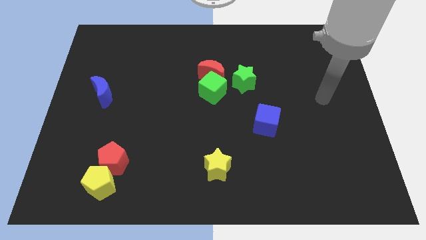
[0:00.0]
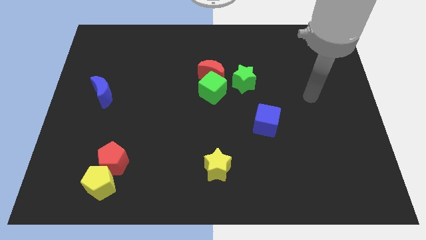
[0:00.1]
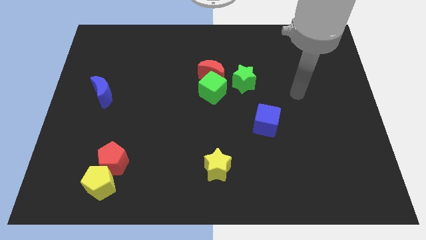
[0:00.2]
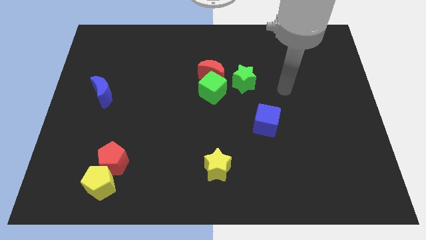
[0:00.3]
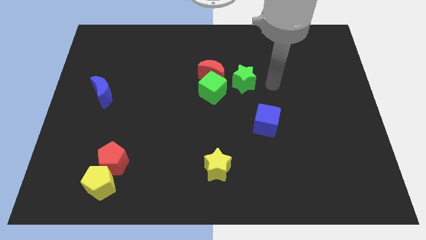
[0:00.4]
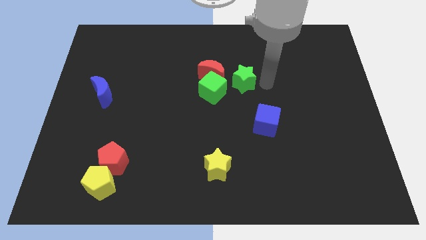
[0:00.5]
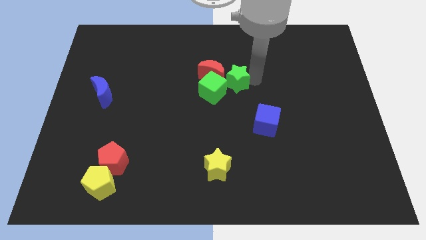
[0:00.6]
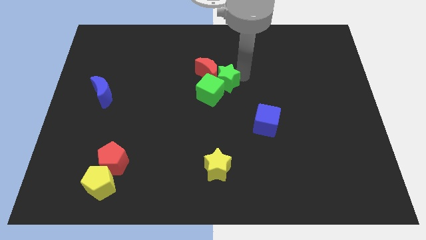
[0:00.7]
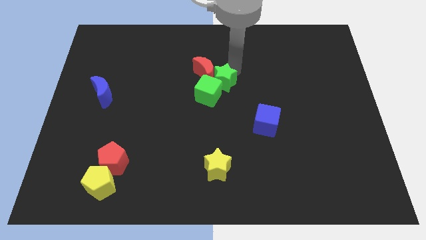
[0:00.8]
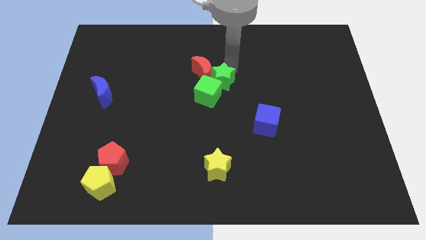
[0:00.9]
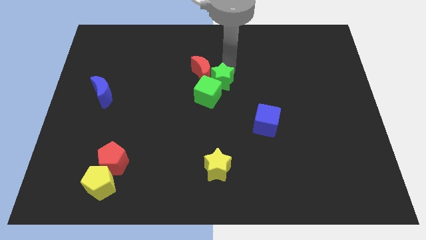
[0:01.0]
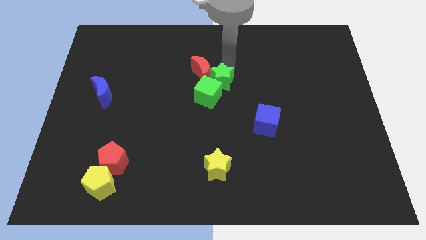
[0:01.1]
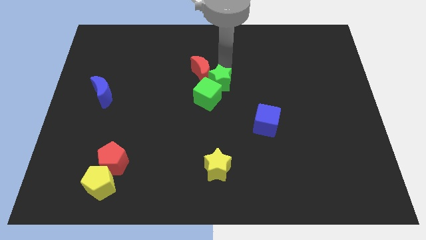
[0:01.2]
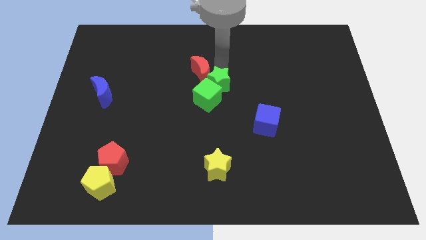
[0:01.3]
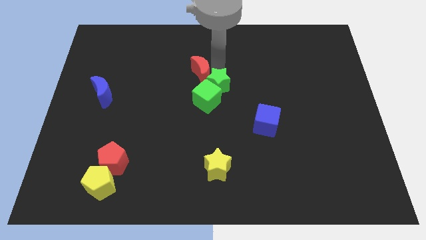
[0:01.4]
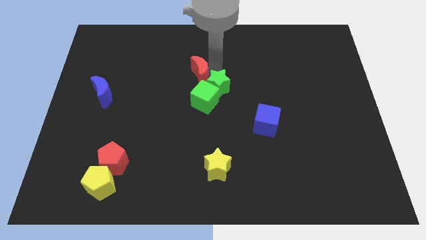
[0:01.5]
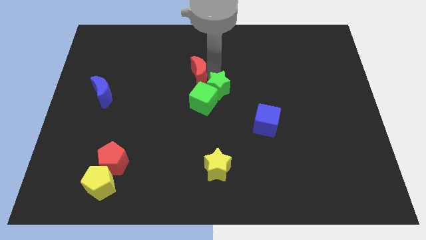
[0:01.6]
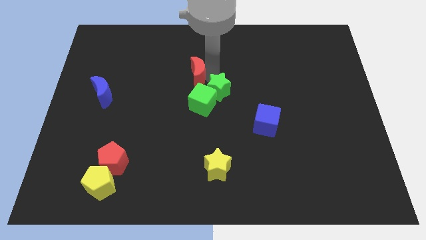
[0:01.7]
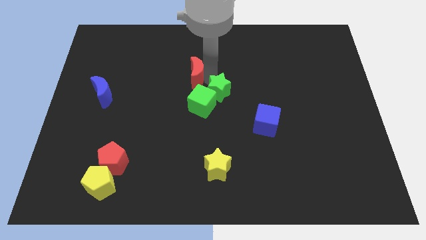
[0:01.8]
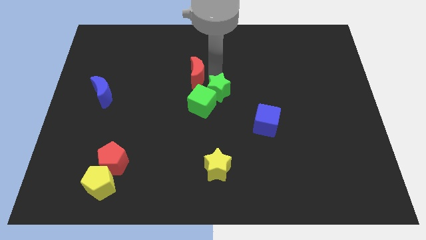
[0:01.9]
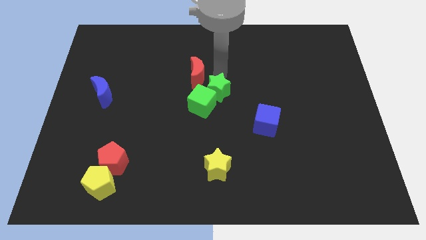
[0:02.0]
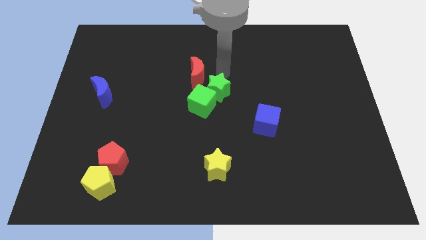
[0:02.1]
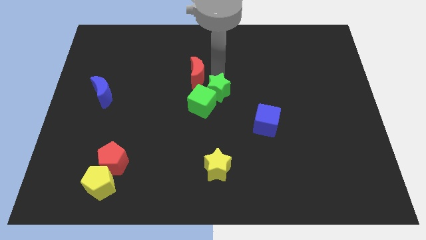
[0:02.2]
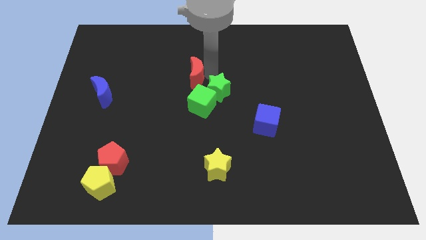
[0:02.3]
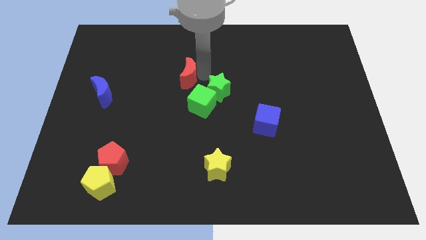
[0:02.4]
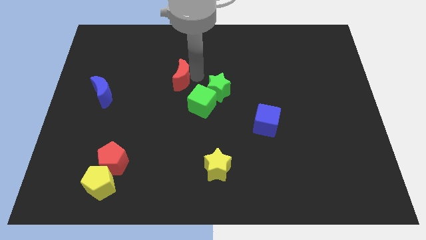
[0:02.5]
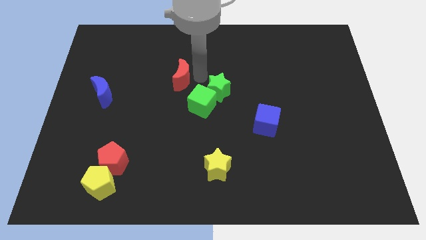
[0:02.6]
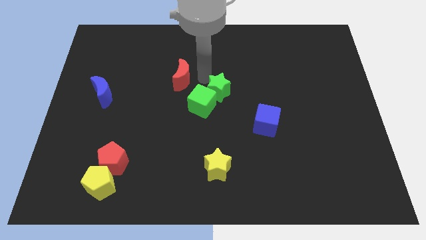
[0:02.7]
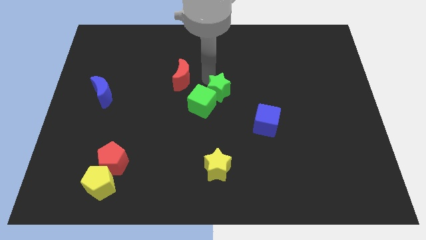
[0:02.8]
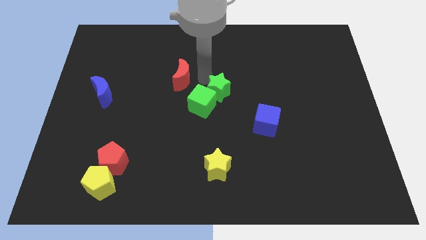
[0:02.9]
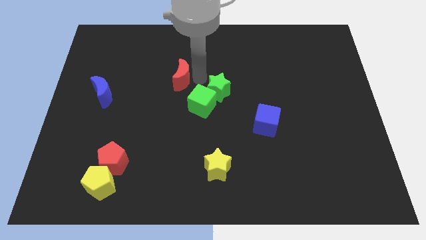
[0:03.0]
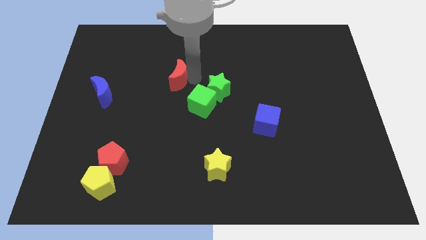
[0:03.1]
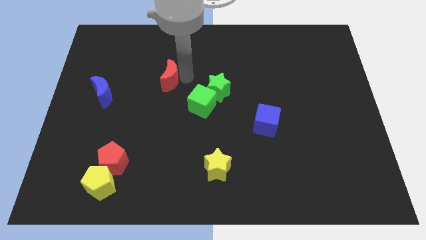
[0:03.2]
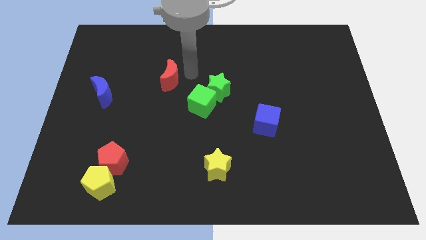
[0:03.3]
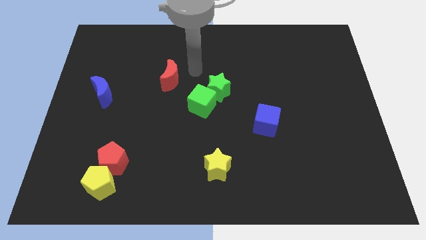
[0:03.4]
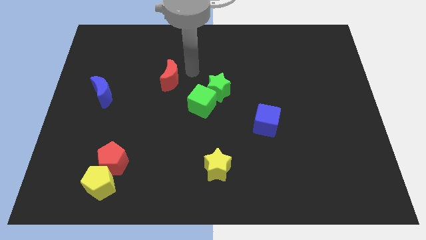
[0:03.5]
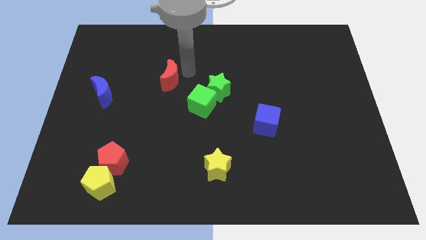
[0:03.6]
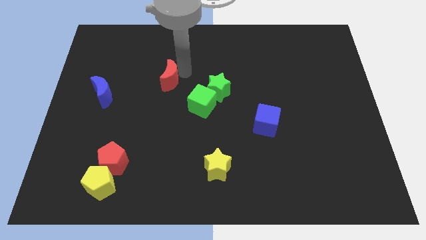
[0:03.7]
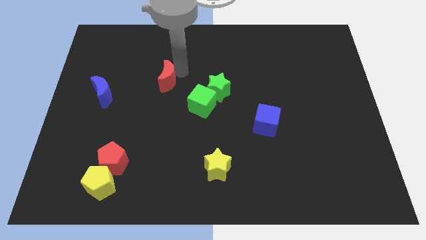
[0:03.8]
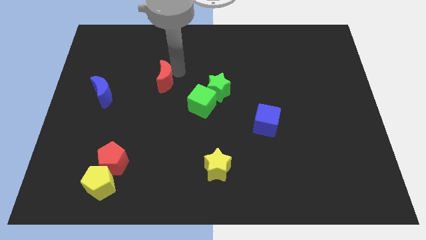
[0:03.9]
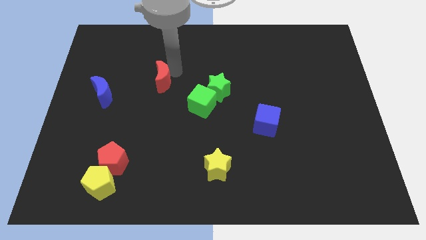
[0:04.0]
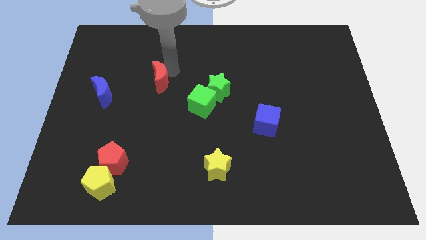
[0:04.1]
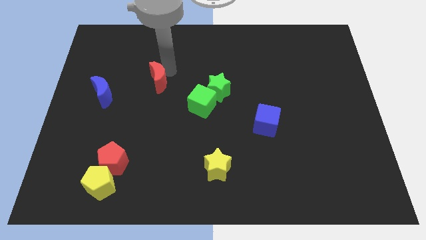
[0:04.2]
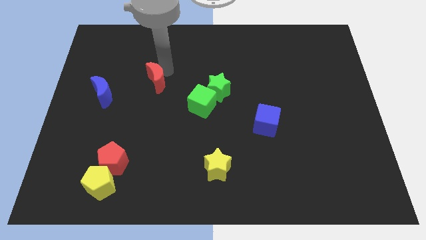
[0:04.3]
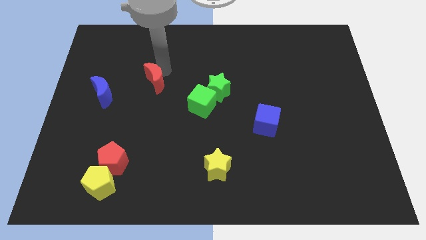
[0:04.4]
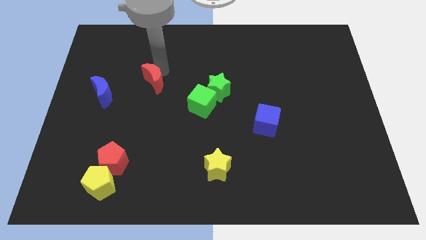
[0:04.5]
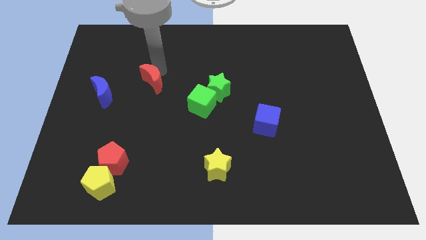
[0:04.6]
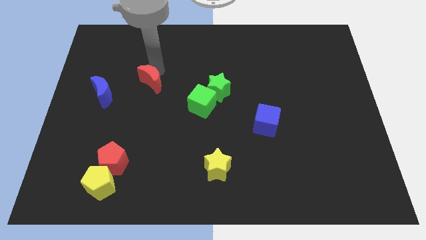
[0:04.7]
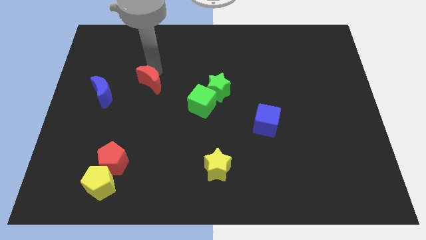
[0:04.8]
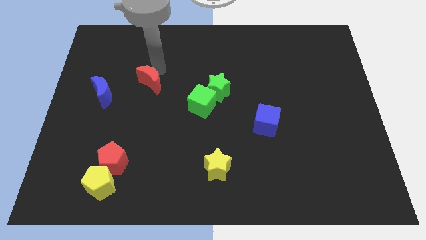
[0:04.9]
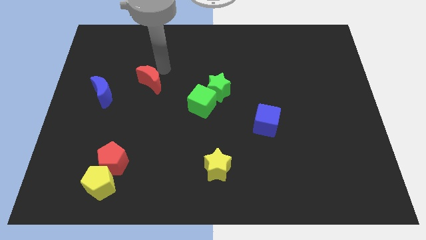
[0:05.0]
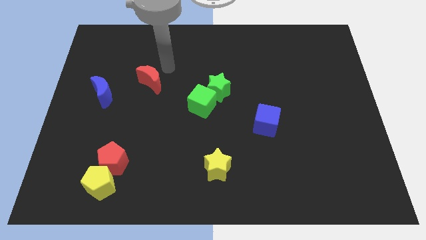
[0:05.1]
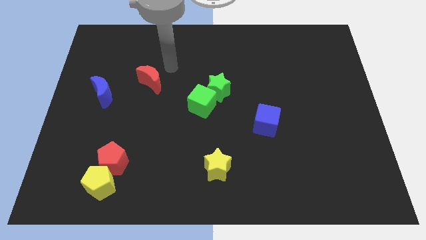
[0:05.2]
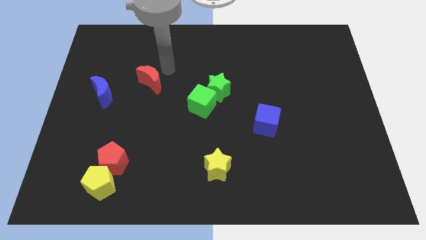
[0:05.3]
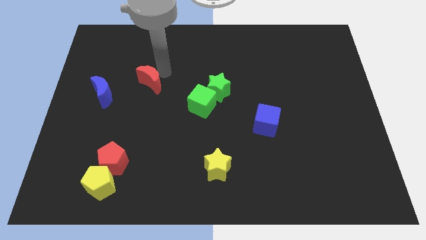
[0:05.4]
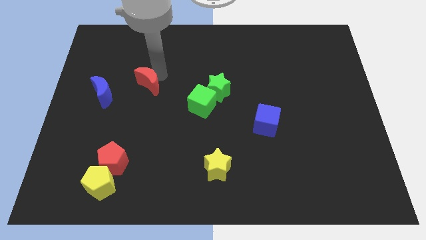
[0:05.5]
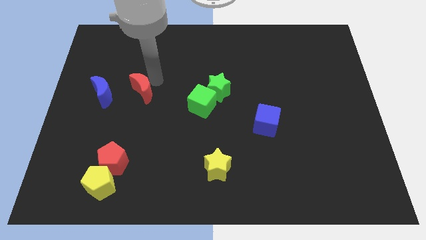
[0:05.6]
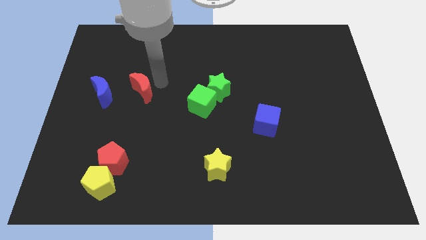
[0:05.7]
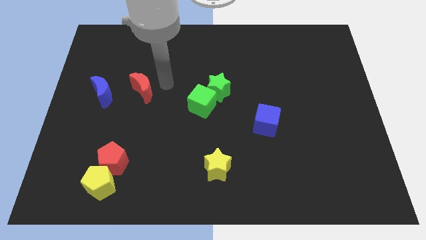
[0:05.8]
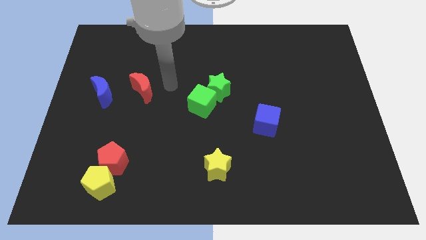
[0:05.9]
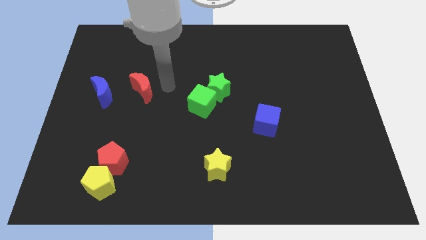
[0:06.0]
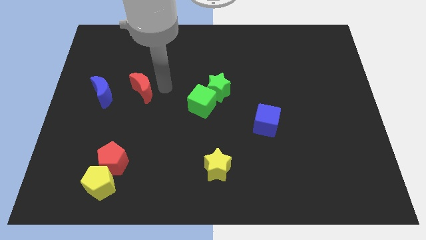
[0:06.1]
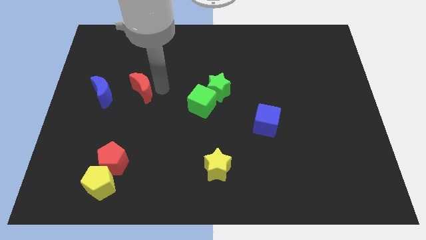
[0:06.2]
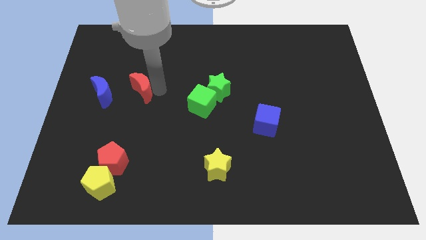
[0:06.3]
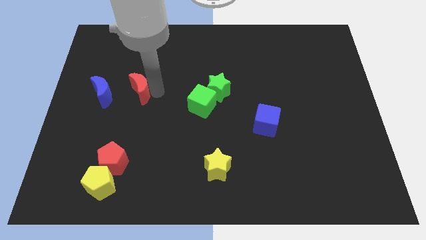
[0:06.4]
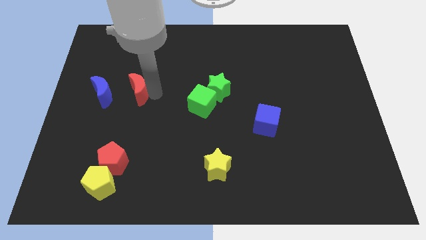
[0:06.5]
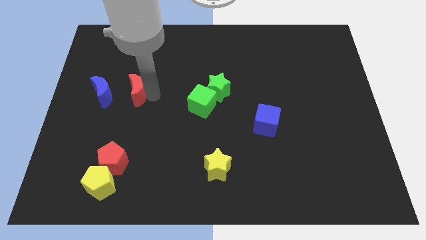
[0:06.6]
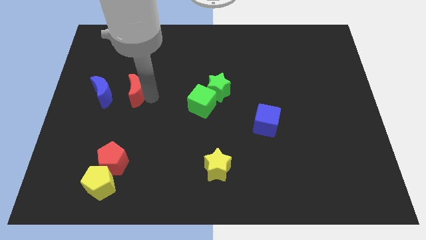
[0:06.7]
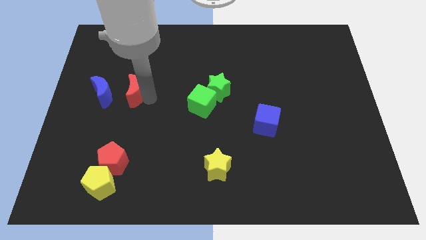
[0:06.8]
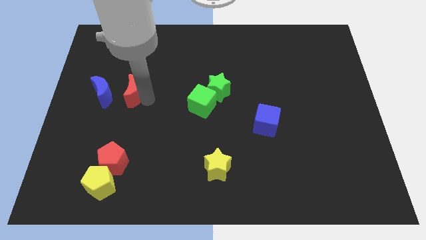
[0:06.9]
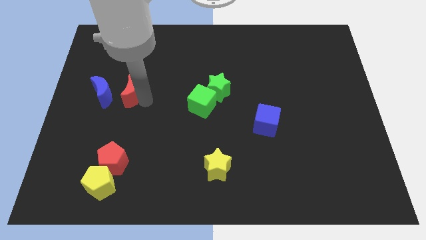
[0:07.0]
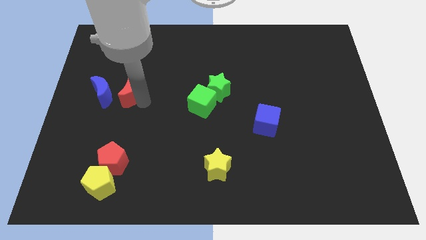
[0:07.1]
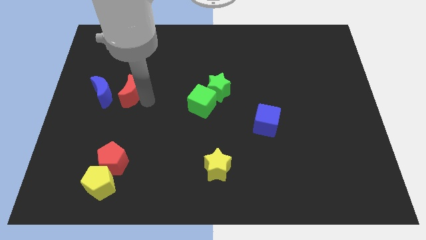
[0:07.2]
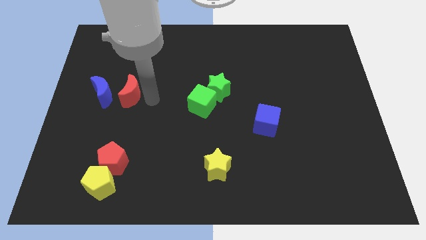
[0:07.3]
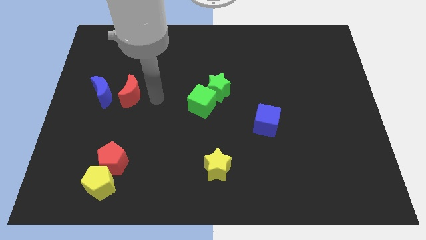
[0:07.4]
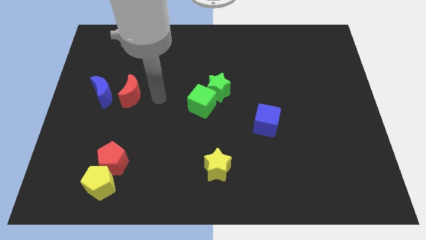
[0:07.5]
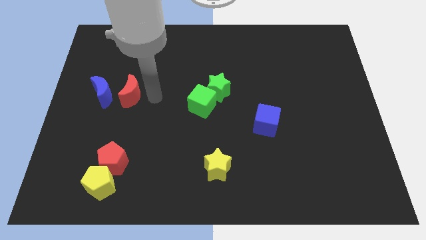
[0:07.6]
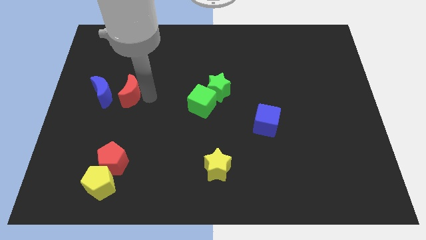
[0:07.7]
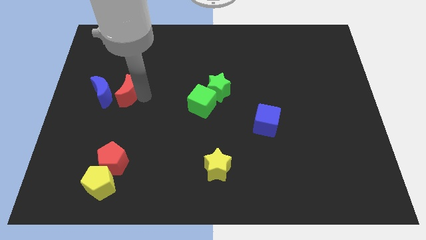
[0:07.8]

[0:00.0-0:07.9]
move the red moon close to the blue moon
